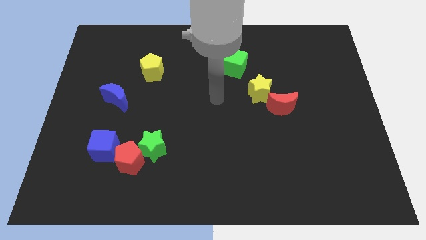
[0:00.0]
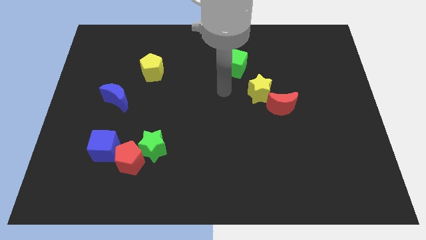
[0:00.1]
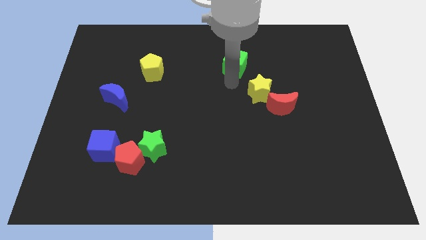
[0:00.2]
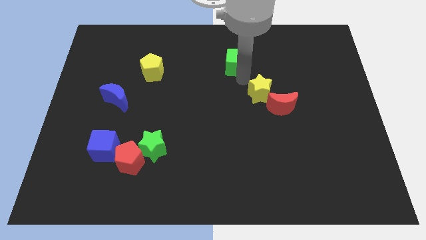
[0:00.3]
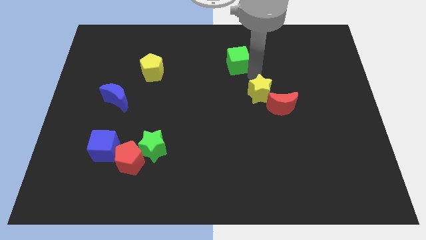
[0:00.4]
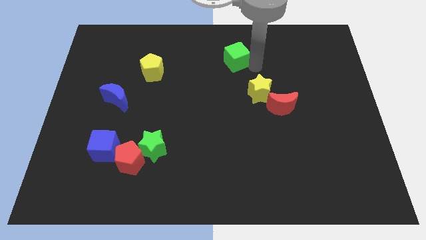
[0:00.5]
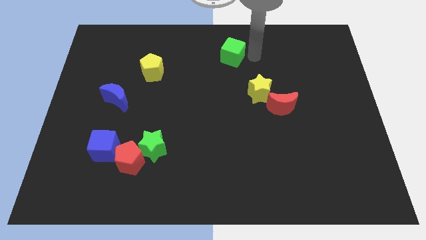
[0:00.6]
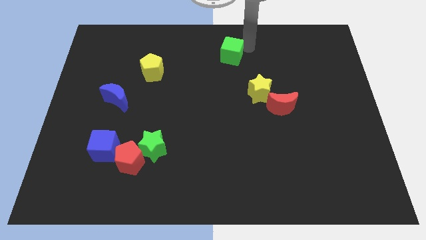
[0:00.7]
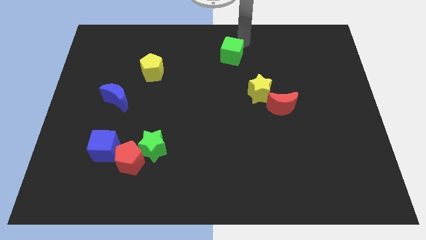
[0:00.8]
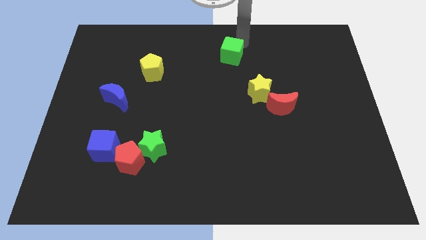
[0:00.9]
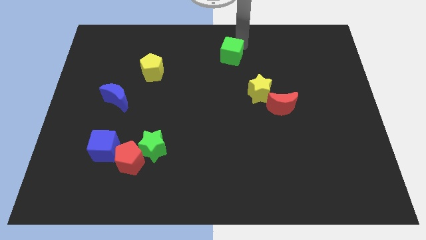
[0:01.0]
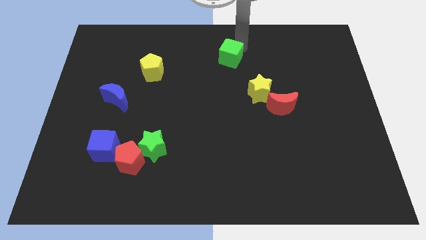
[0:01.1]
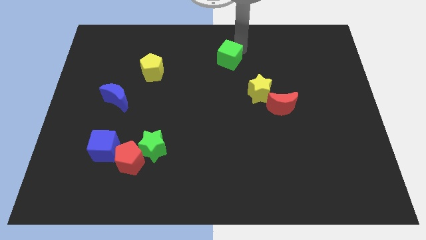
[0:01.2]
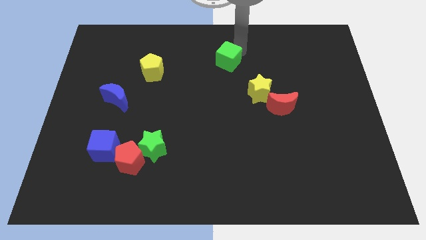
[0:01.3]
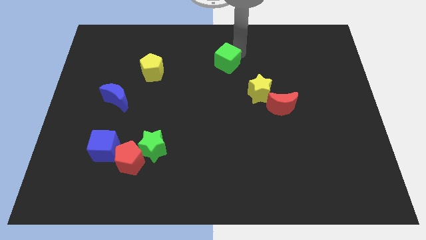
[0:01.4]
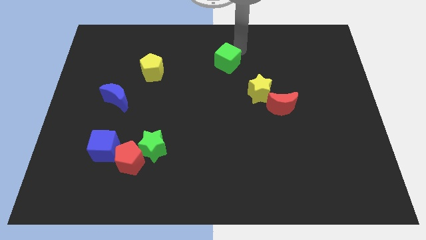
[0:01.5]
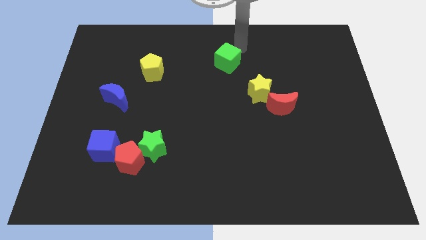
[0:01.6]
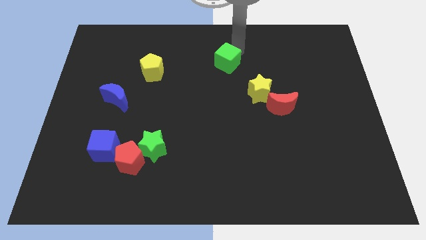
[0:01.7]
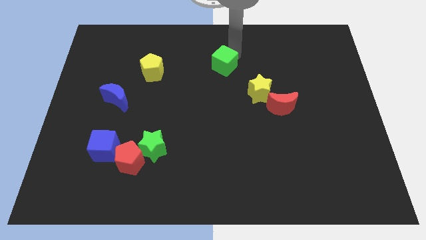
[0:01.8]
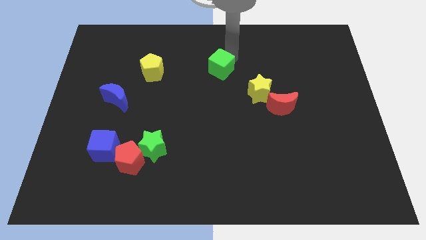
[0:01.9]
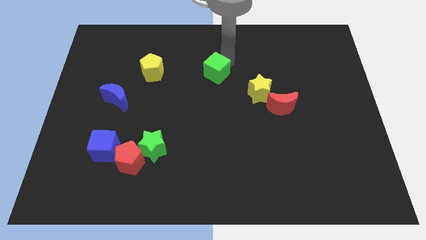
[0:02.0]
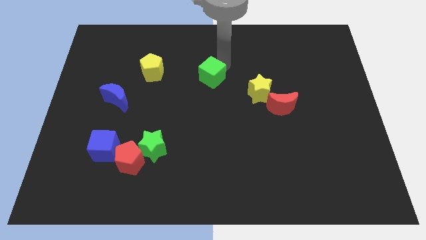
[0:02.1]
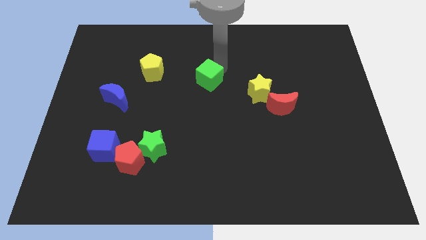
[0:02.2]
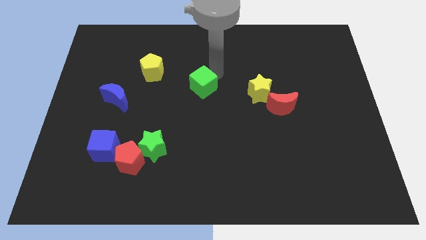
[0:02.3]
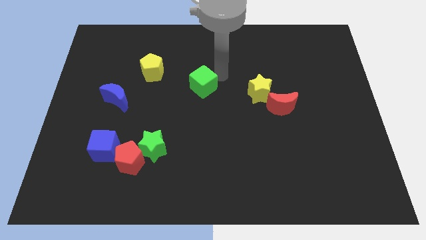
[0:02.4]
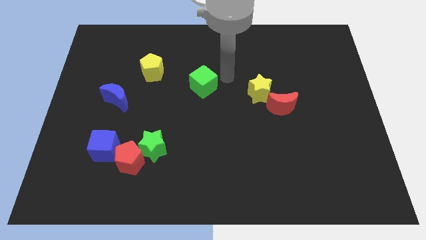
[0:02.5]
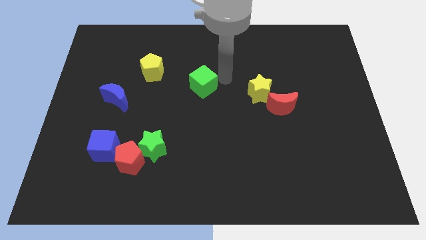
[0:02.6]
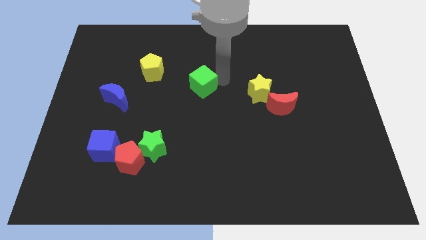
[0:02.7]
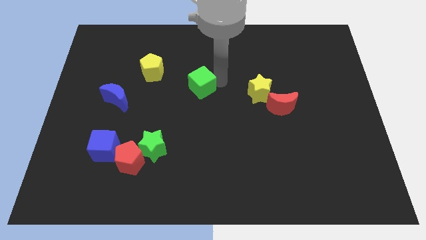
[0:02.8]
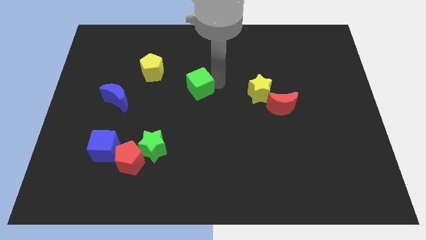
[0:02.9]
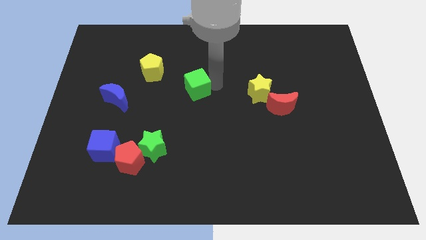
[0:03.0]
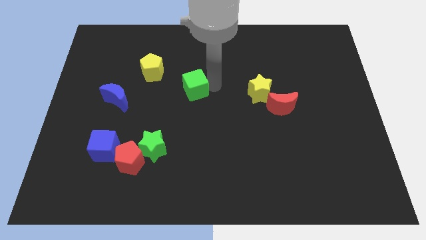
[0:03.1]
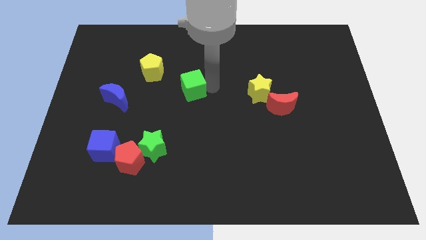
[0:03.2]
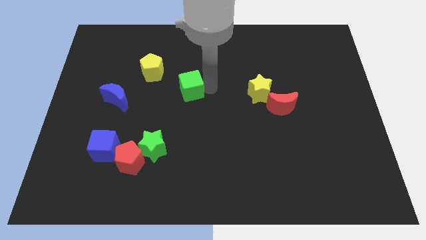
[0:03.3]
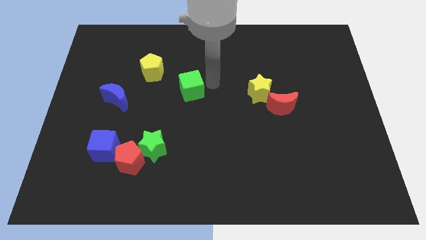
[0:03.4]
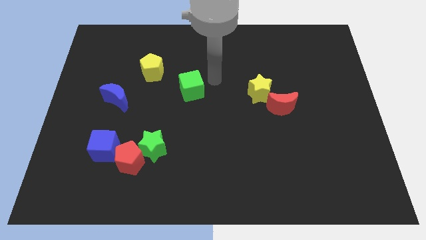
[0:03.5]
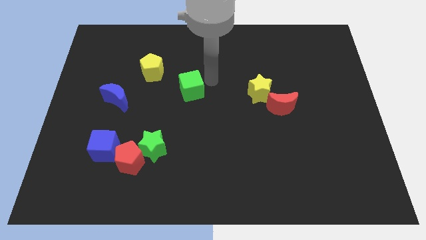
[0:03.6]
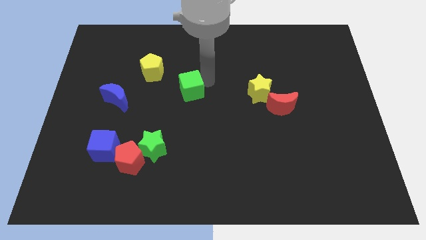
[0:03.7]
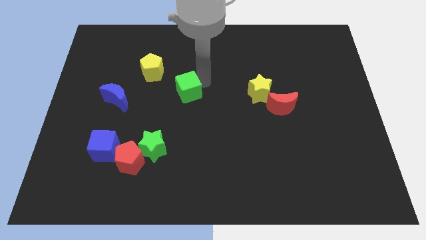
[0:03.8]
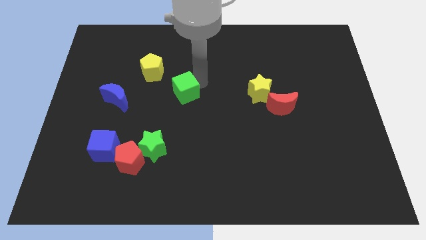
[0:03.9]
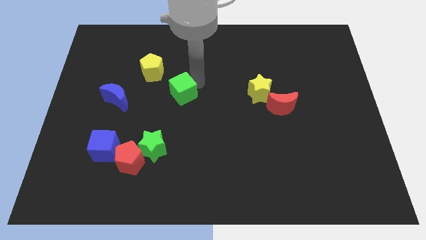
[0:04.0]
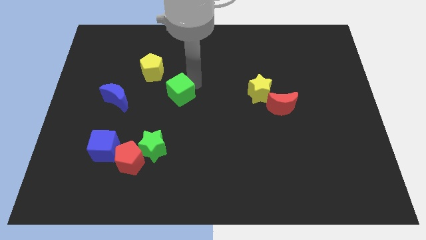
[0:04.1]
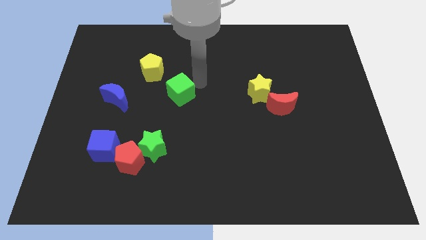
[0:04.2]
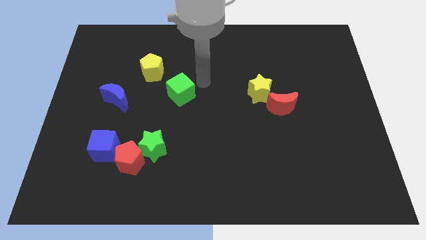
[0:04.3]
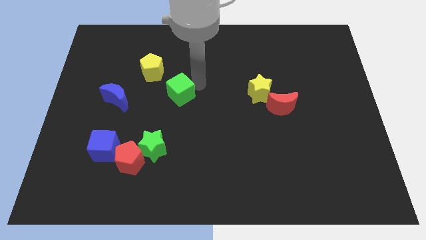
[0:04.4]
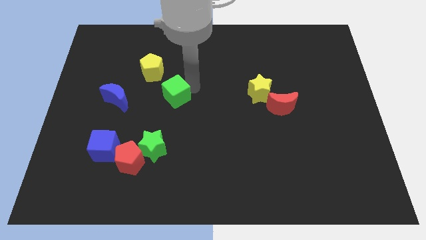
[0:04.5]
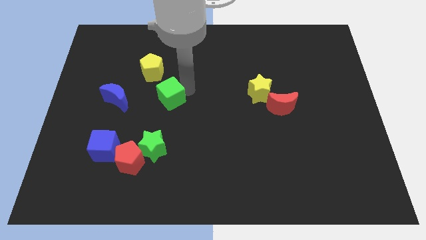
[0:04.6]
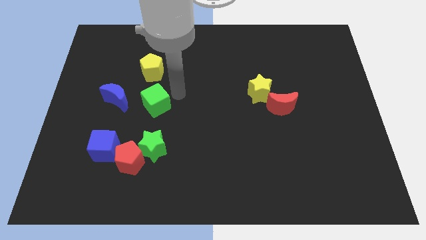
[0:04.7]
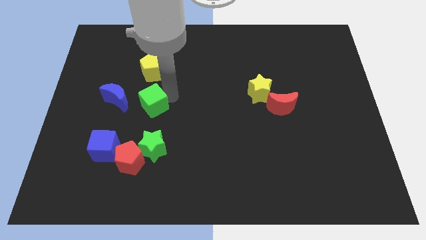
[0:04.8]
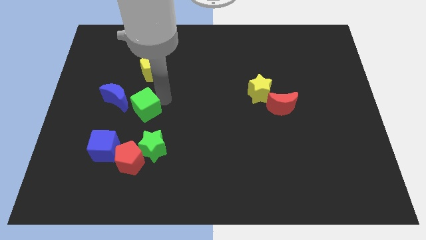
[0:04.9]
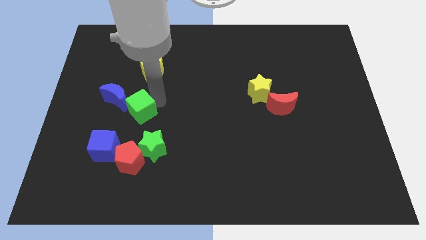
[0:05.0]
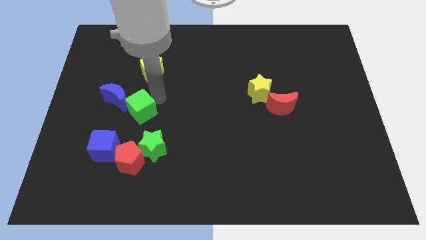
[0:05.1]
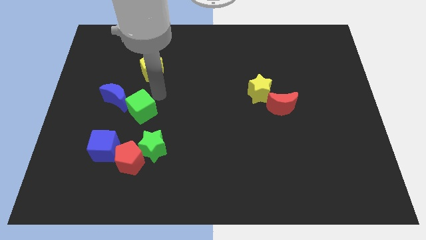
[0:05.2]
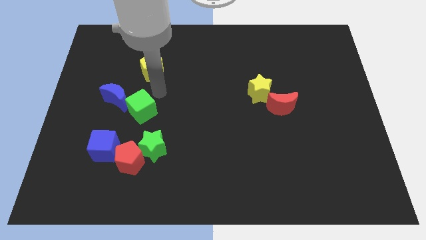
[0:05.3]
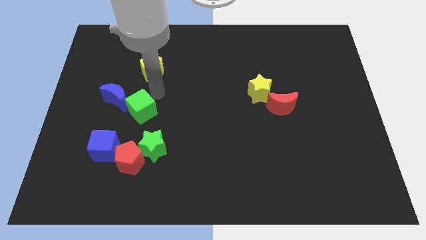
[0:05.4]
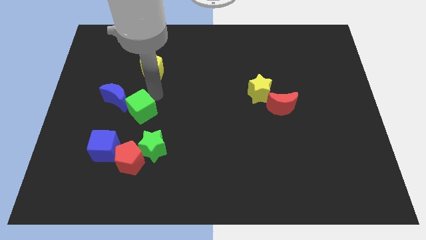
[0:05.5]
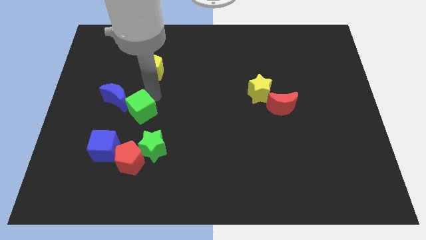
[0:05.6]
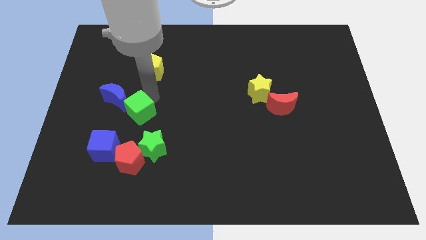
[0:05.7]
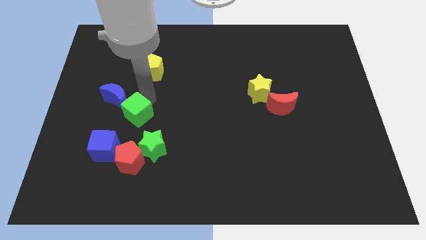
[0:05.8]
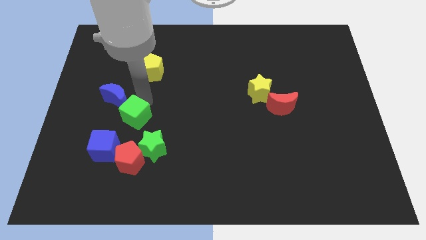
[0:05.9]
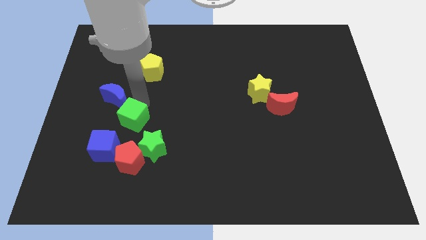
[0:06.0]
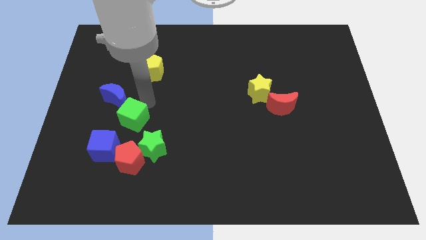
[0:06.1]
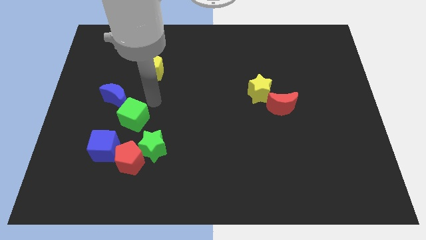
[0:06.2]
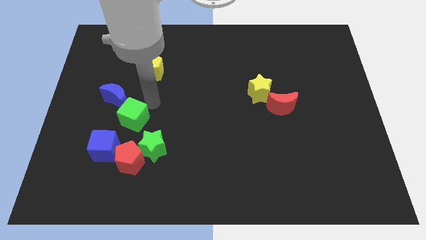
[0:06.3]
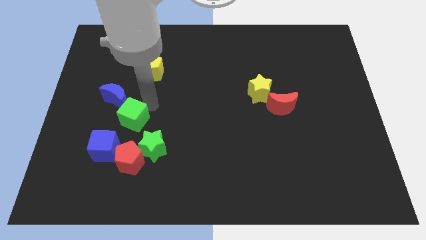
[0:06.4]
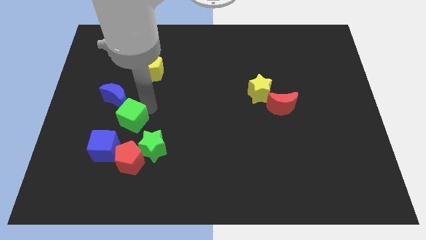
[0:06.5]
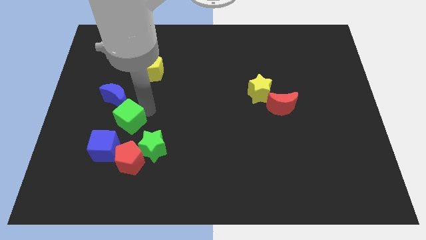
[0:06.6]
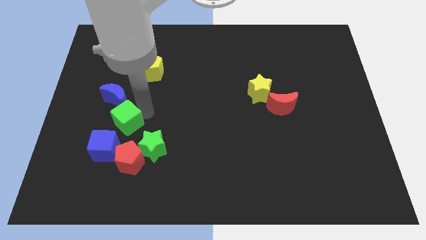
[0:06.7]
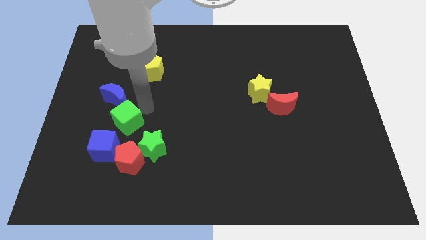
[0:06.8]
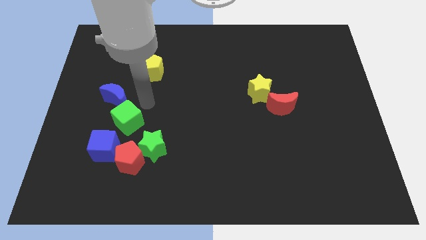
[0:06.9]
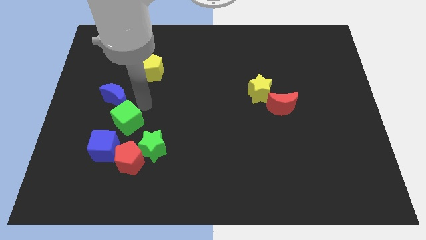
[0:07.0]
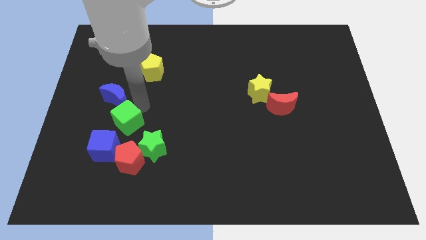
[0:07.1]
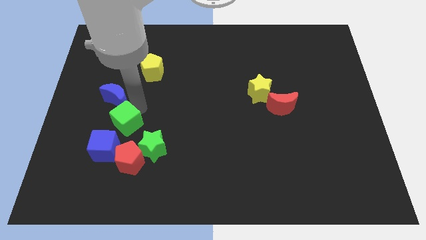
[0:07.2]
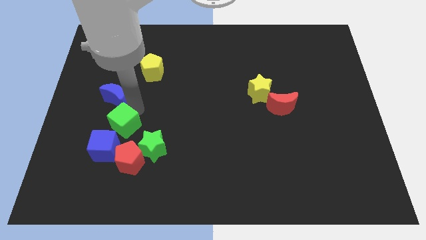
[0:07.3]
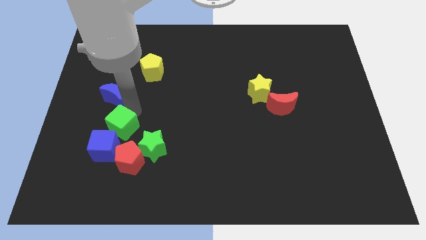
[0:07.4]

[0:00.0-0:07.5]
slide the green cube diagonally up and to the left of the red pentagon

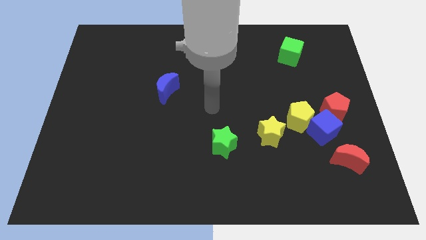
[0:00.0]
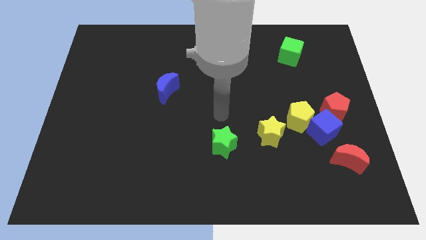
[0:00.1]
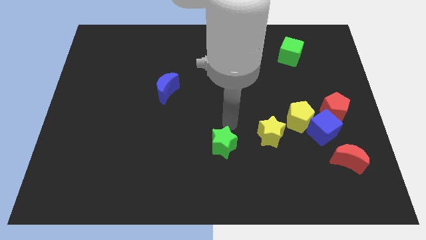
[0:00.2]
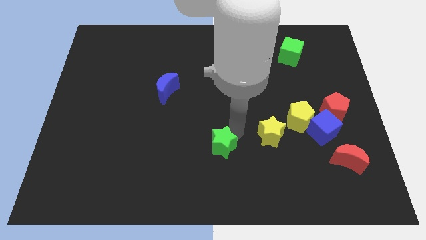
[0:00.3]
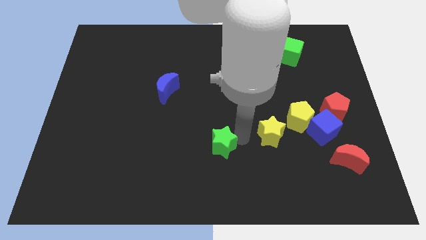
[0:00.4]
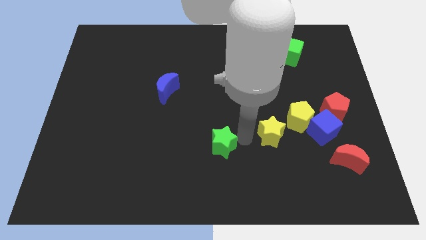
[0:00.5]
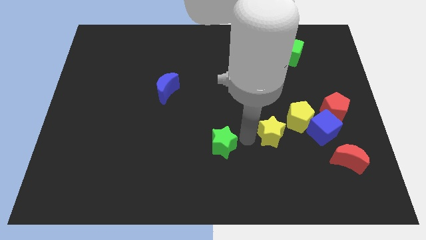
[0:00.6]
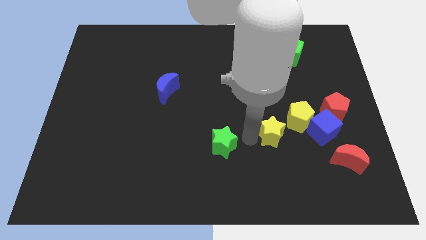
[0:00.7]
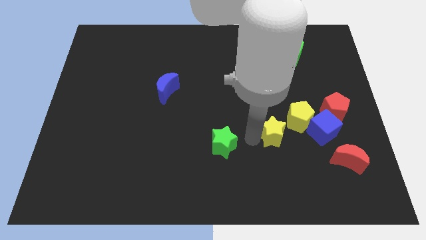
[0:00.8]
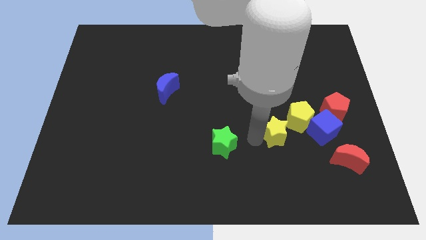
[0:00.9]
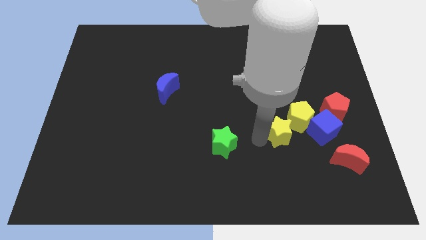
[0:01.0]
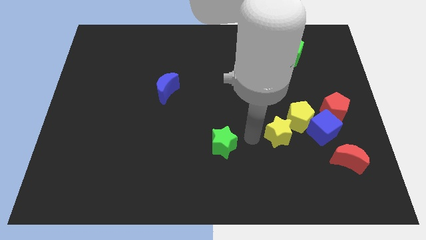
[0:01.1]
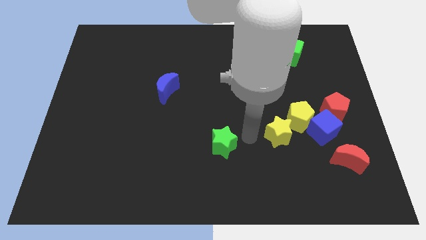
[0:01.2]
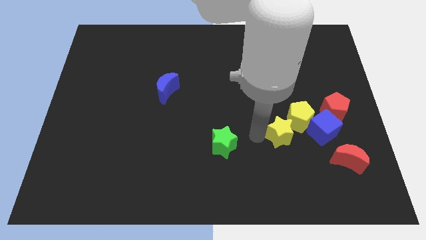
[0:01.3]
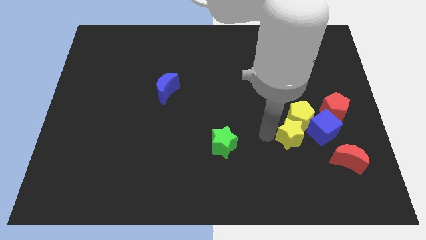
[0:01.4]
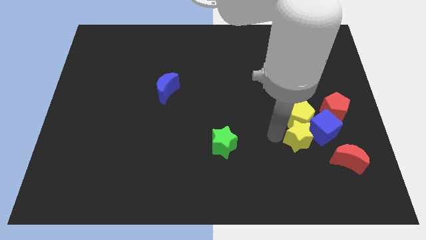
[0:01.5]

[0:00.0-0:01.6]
slide the yellow star to the bottom left side of the red pentagon
